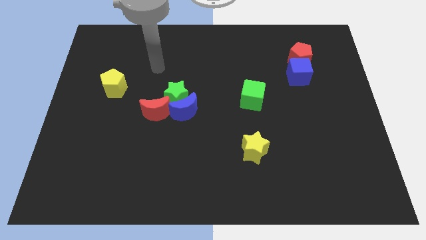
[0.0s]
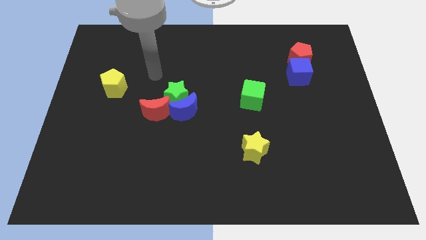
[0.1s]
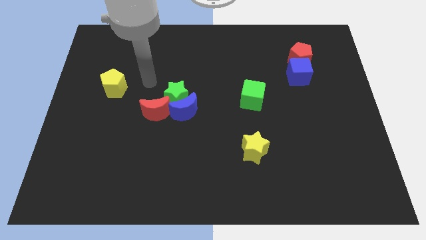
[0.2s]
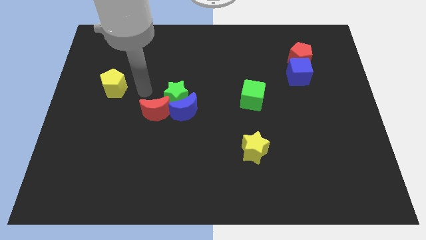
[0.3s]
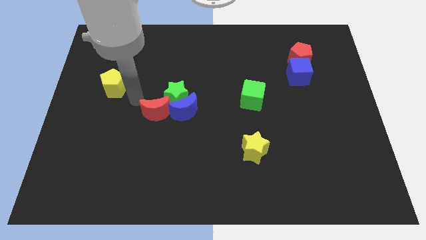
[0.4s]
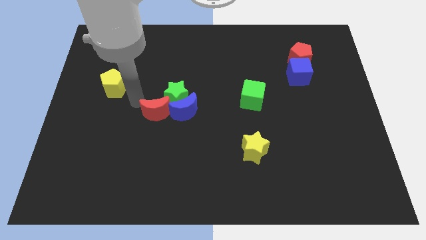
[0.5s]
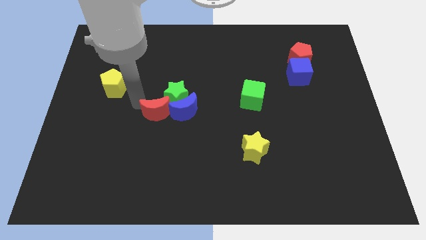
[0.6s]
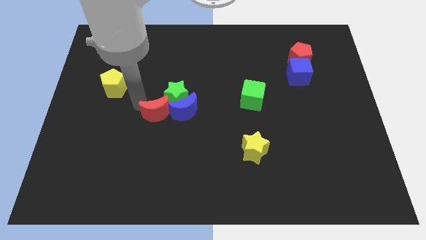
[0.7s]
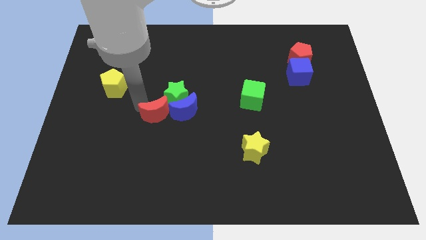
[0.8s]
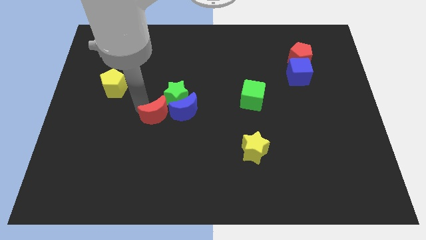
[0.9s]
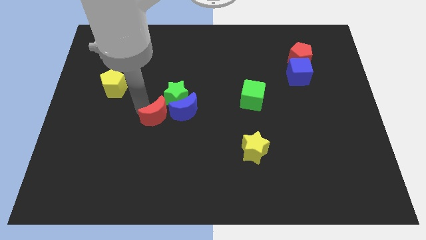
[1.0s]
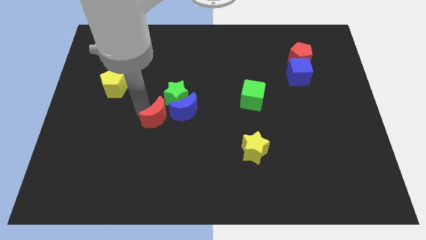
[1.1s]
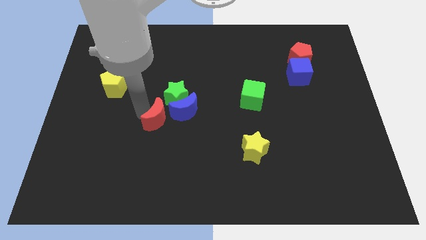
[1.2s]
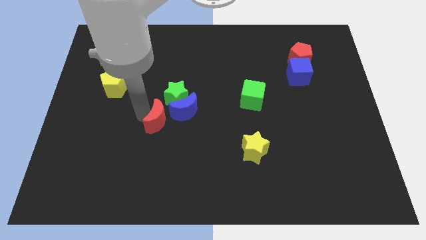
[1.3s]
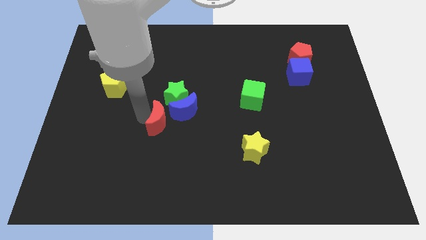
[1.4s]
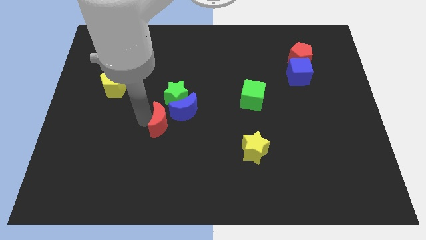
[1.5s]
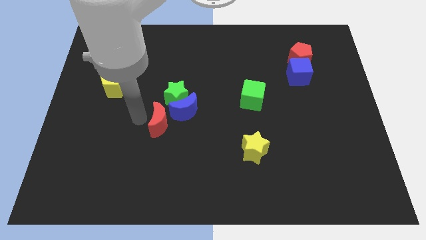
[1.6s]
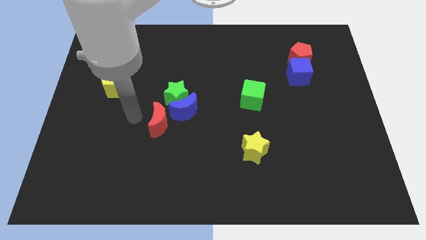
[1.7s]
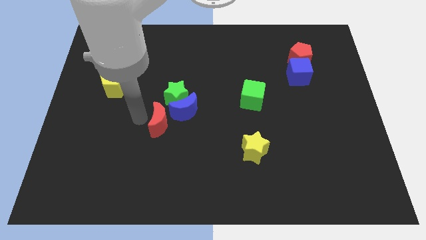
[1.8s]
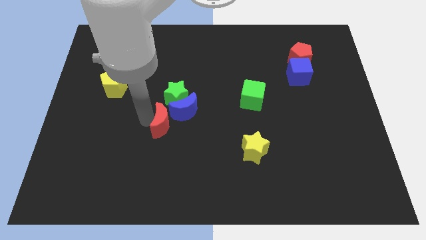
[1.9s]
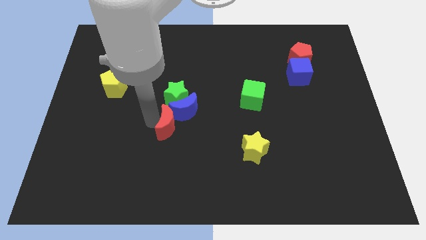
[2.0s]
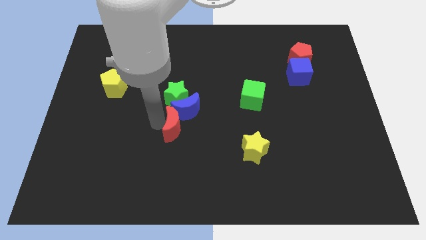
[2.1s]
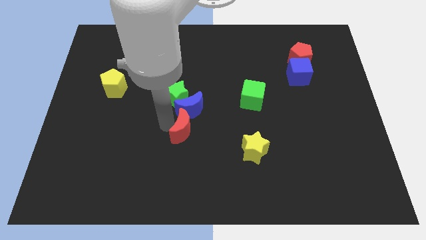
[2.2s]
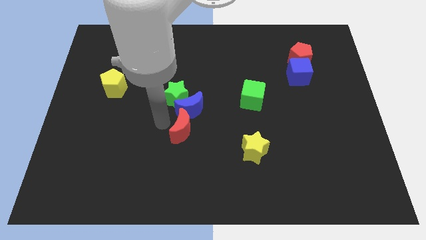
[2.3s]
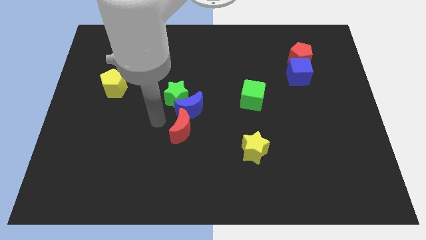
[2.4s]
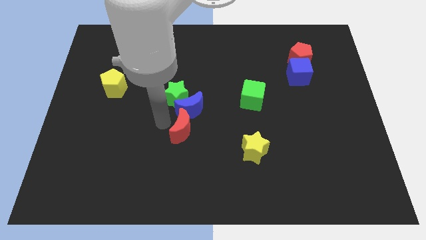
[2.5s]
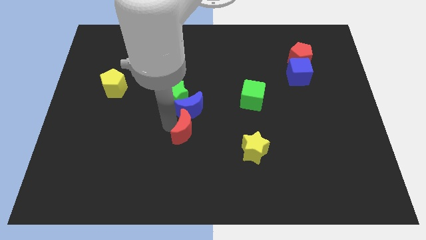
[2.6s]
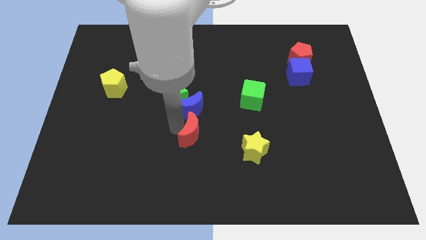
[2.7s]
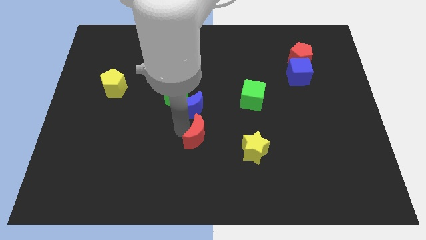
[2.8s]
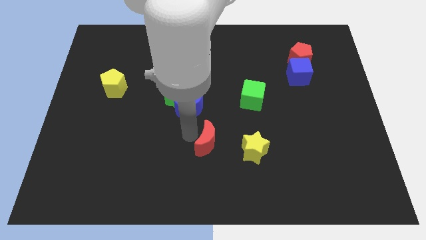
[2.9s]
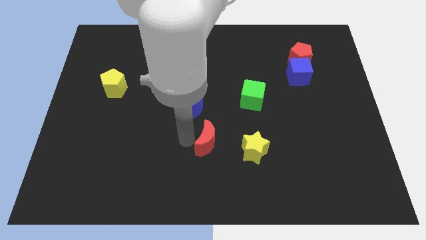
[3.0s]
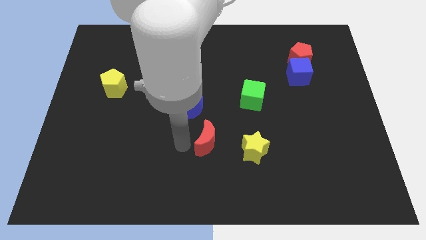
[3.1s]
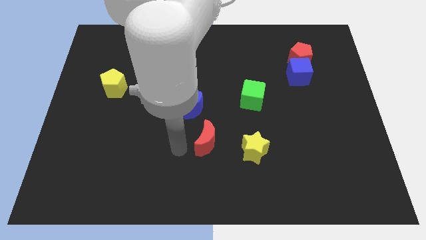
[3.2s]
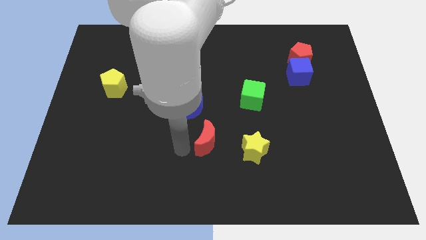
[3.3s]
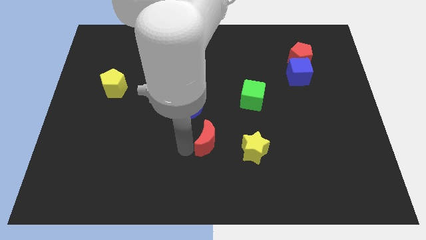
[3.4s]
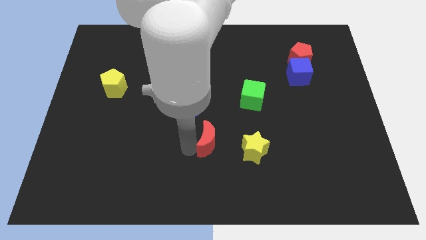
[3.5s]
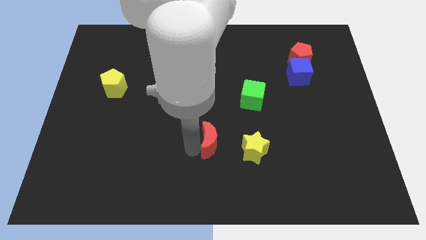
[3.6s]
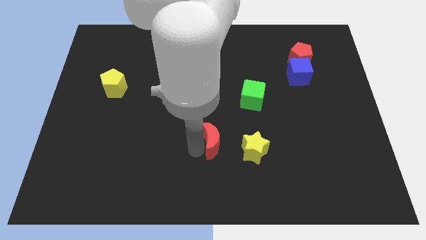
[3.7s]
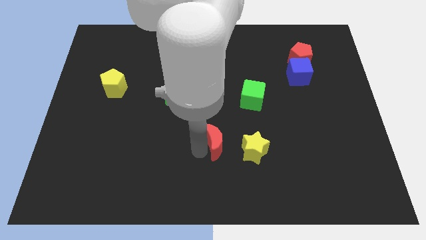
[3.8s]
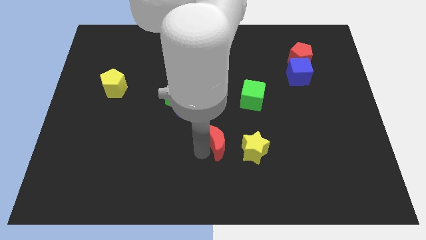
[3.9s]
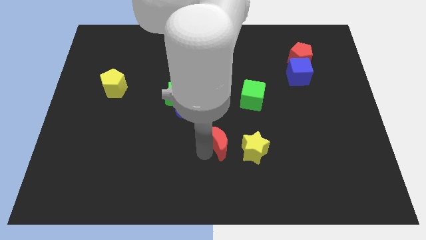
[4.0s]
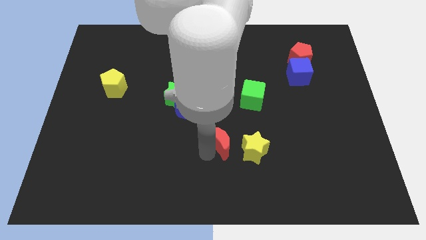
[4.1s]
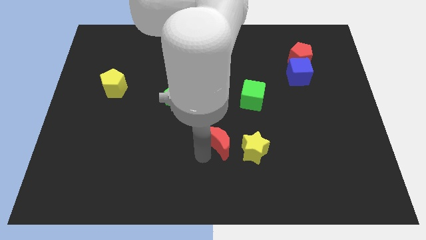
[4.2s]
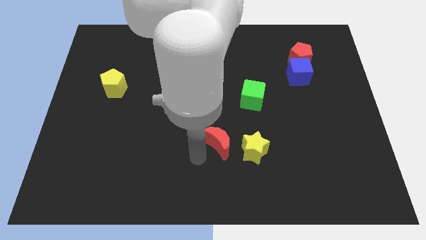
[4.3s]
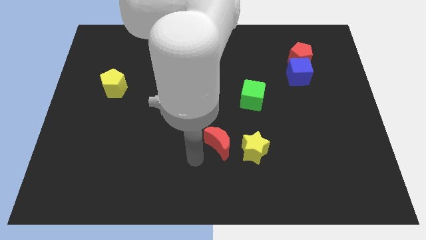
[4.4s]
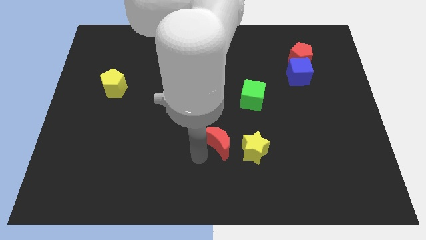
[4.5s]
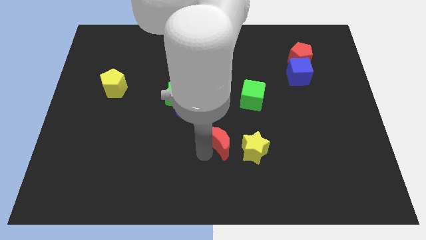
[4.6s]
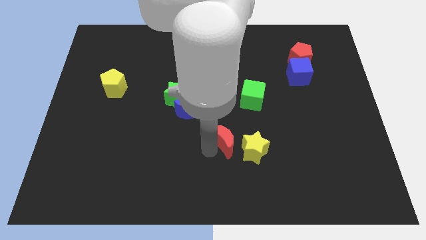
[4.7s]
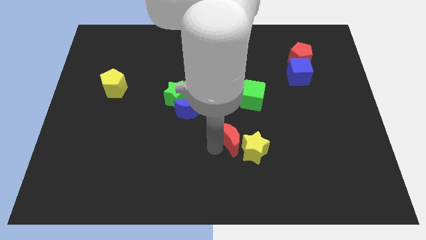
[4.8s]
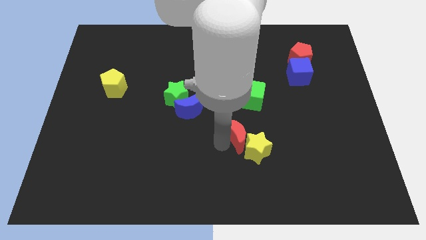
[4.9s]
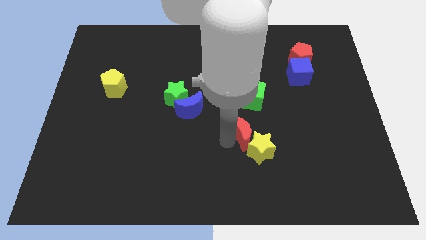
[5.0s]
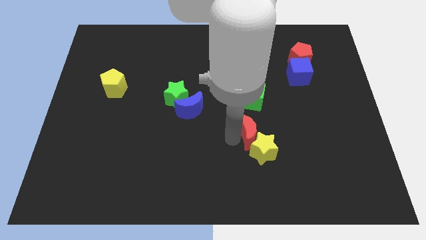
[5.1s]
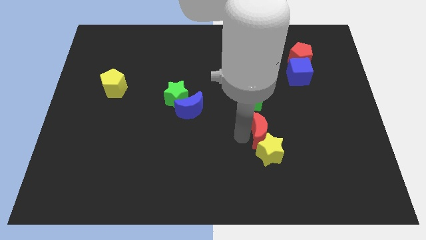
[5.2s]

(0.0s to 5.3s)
move the red moon right

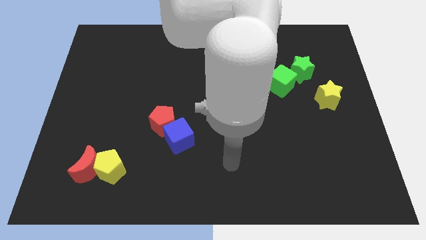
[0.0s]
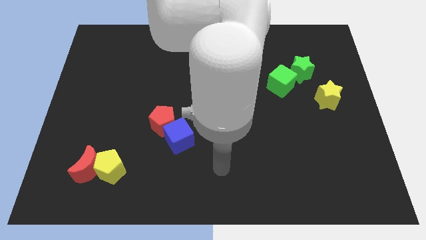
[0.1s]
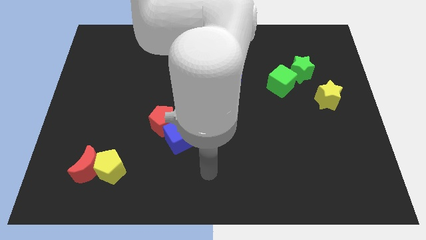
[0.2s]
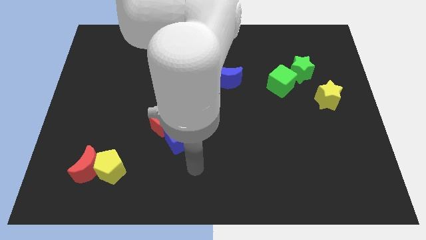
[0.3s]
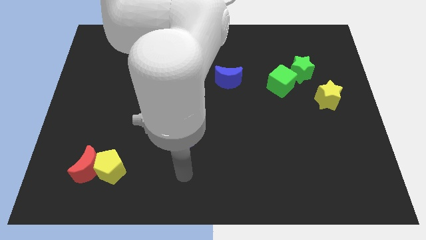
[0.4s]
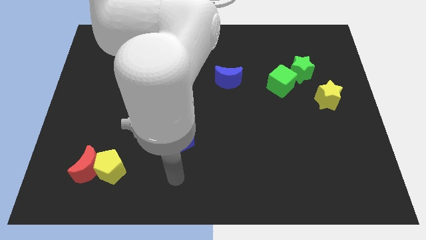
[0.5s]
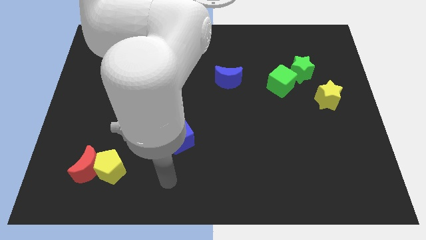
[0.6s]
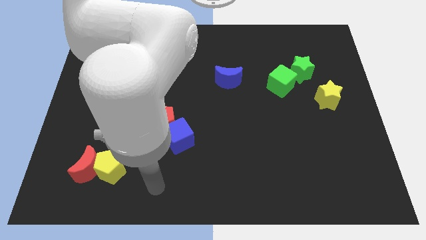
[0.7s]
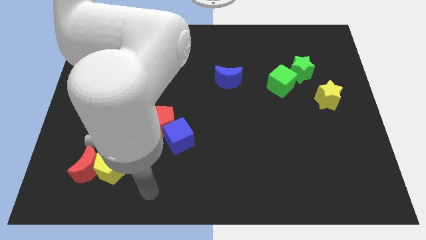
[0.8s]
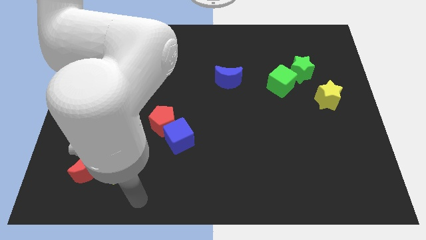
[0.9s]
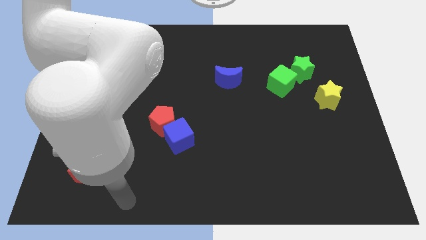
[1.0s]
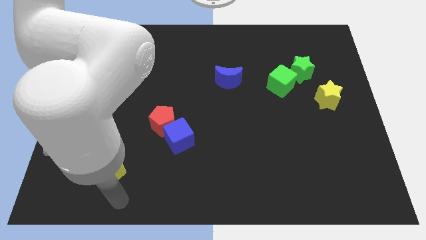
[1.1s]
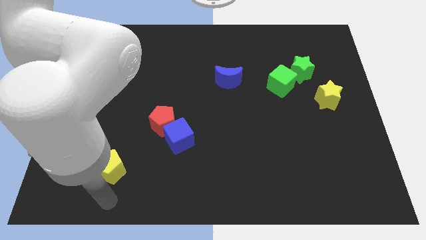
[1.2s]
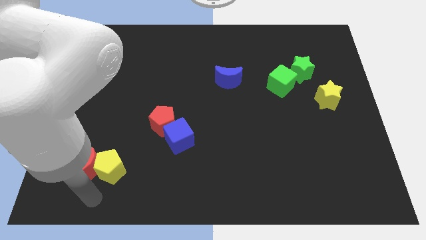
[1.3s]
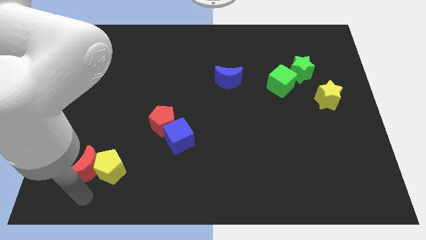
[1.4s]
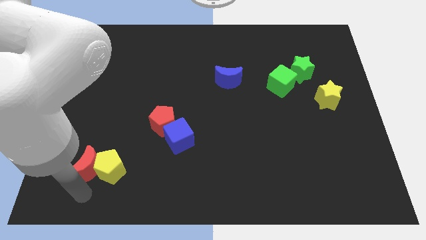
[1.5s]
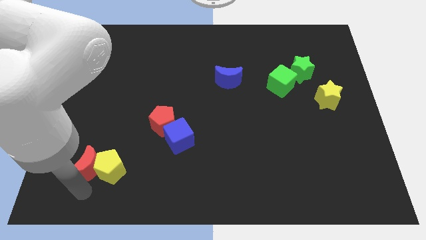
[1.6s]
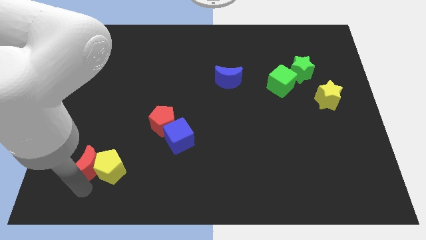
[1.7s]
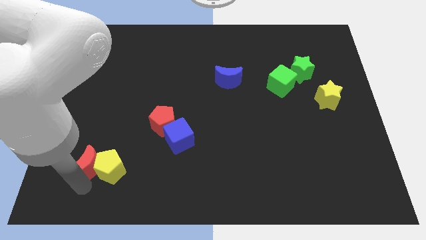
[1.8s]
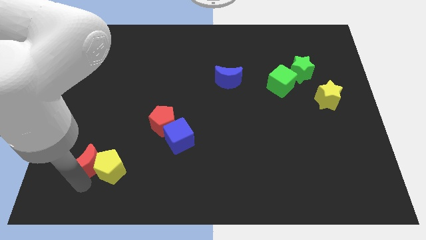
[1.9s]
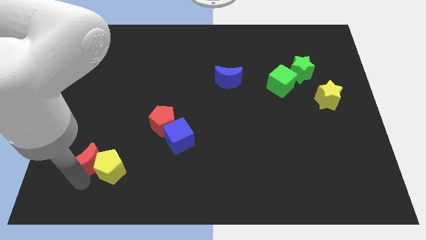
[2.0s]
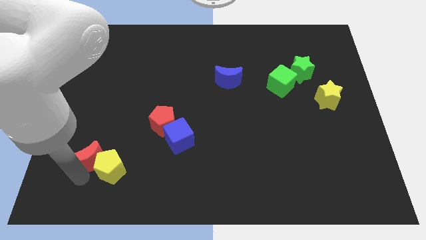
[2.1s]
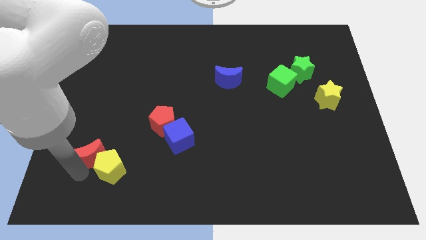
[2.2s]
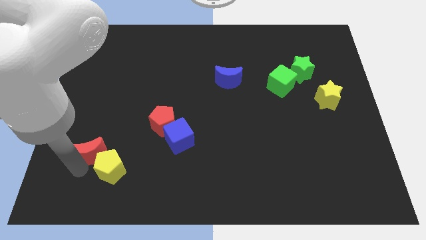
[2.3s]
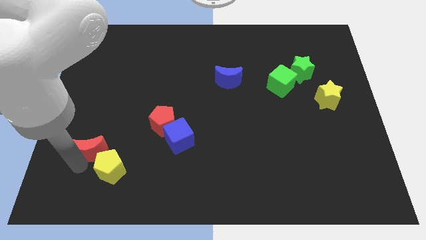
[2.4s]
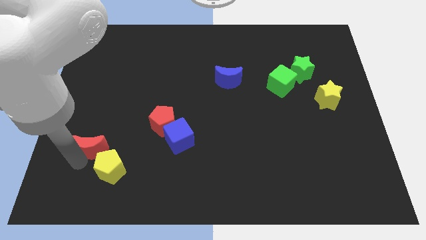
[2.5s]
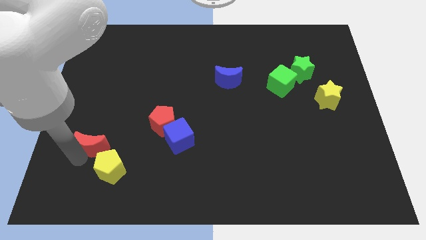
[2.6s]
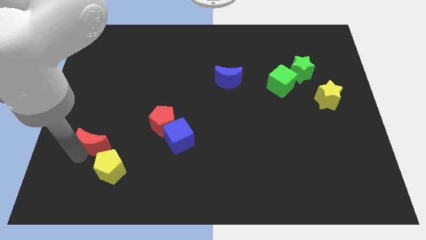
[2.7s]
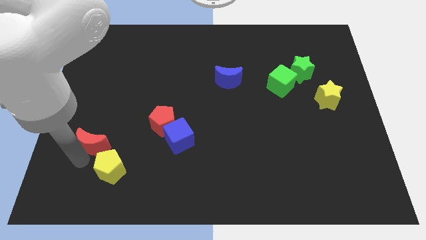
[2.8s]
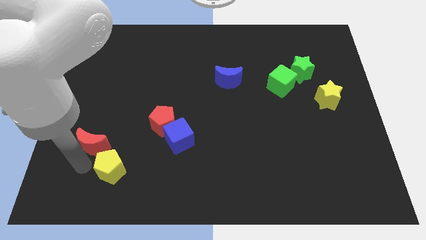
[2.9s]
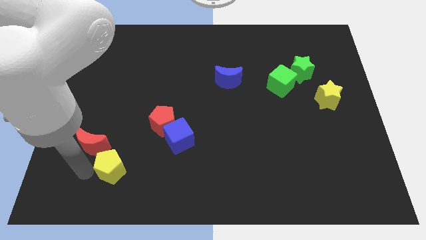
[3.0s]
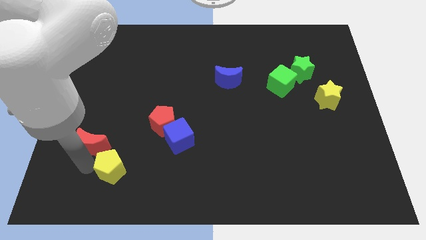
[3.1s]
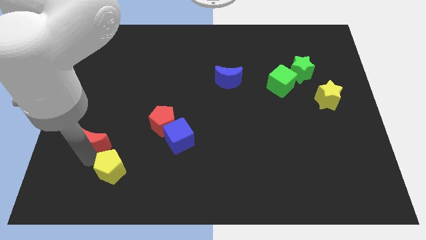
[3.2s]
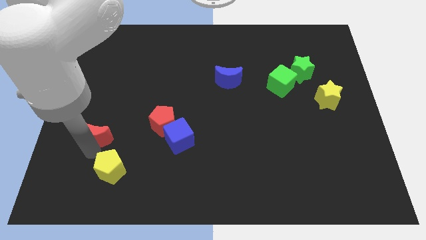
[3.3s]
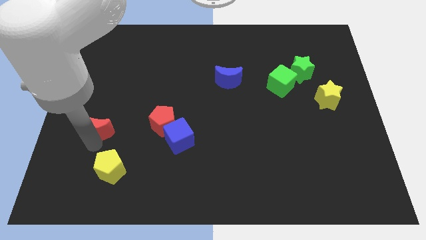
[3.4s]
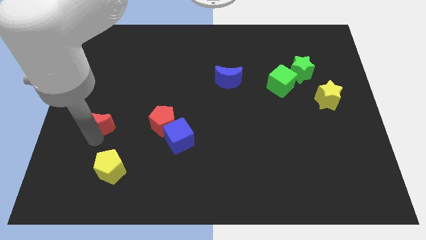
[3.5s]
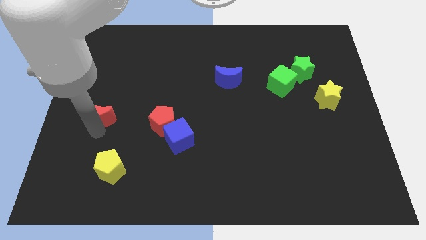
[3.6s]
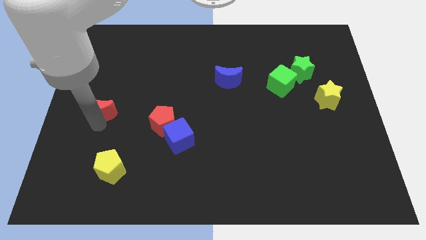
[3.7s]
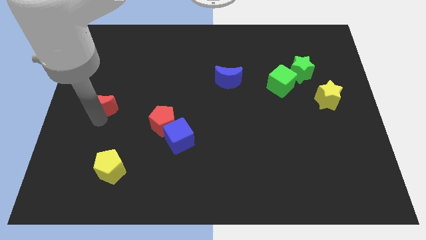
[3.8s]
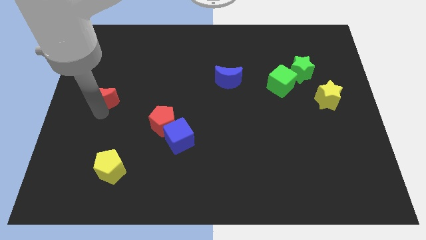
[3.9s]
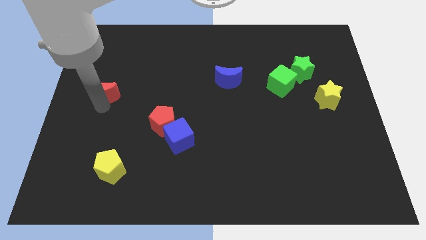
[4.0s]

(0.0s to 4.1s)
slide the red moon up
